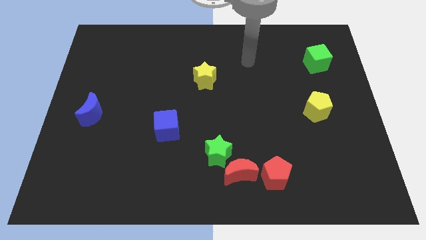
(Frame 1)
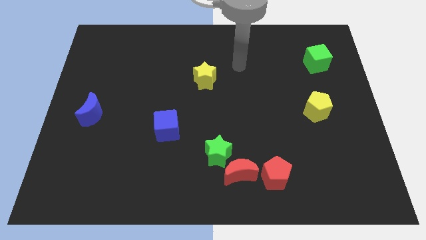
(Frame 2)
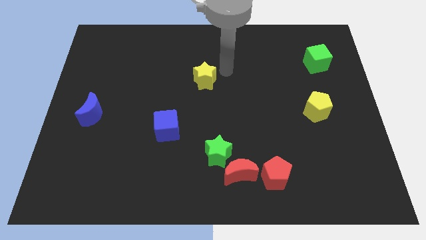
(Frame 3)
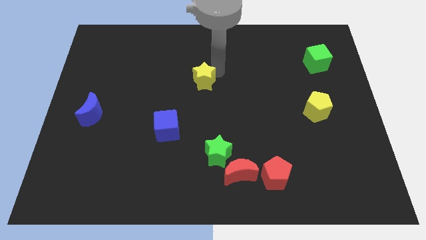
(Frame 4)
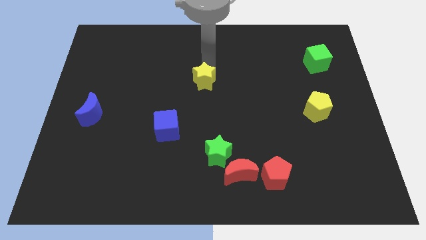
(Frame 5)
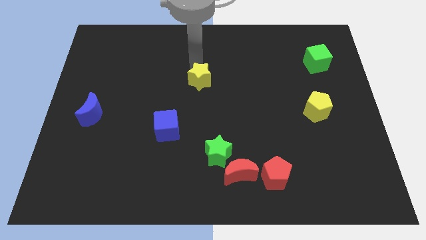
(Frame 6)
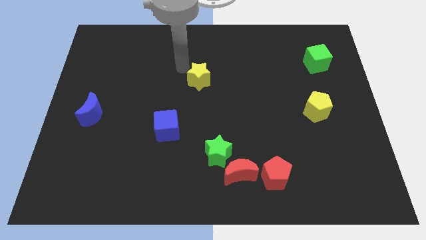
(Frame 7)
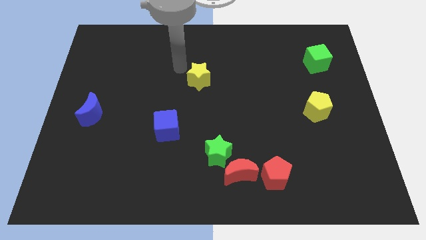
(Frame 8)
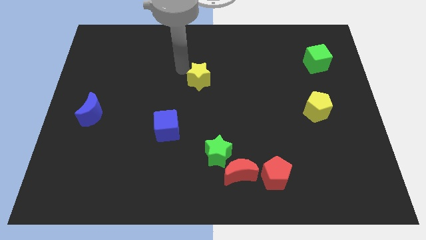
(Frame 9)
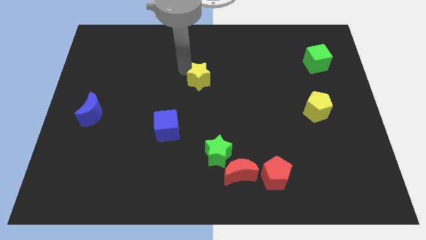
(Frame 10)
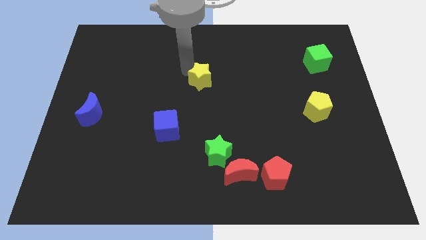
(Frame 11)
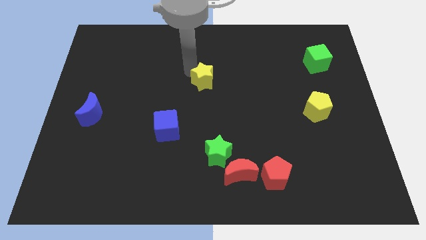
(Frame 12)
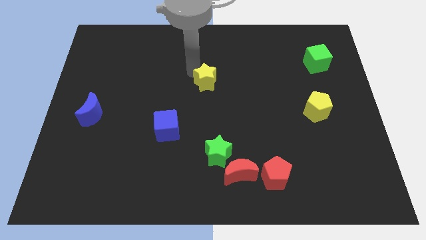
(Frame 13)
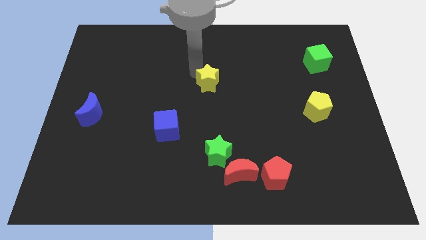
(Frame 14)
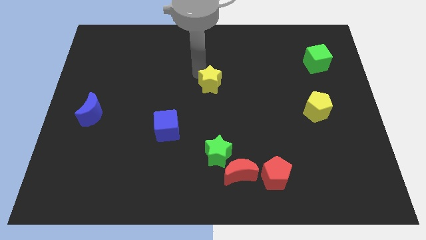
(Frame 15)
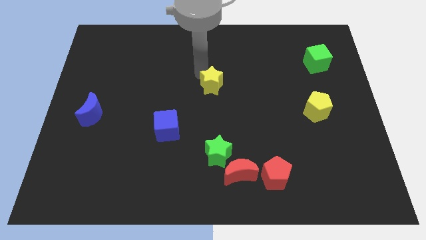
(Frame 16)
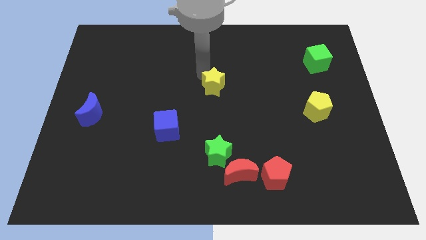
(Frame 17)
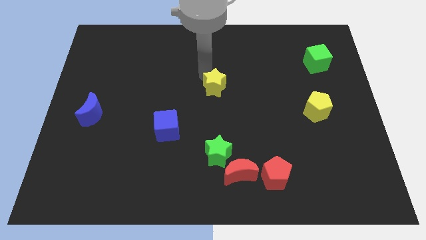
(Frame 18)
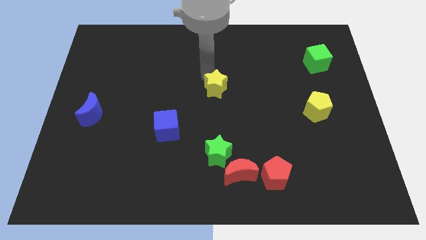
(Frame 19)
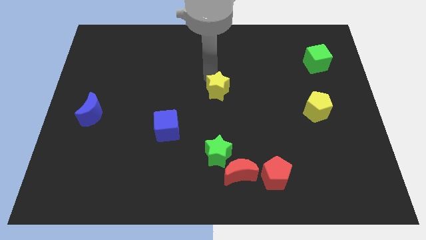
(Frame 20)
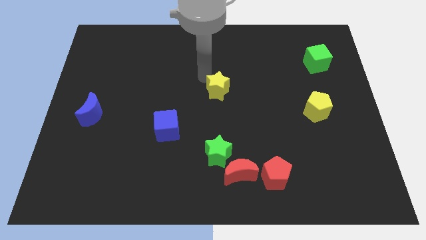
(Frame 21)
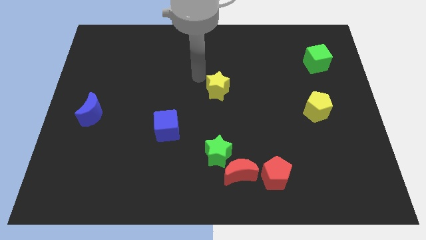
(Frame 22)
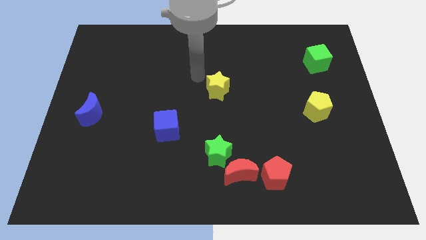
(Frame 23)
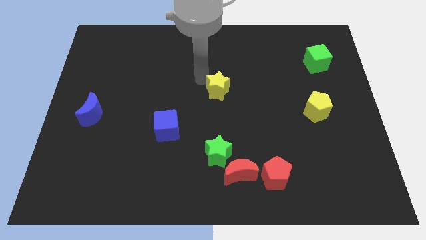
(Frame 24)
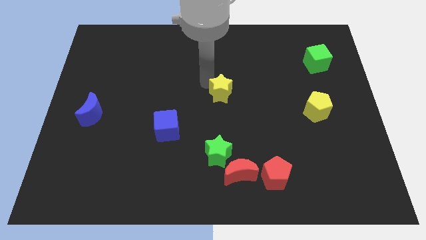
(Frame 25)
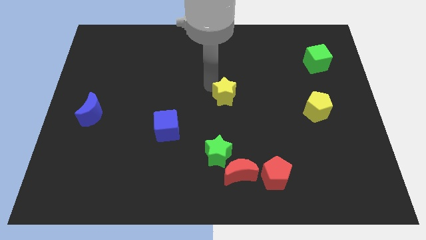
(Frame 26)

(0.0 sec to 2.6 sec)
slide the yellow star a bit down and then to the right

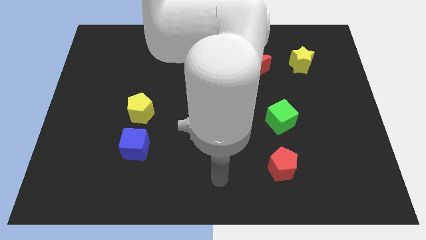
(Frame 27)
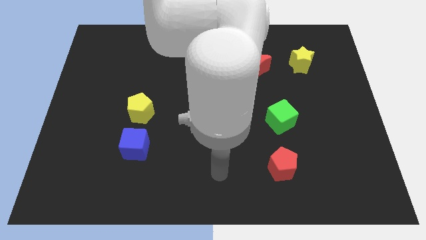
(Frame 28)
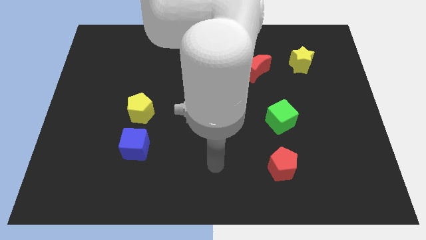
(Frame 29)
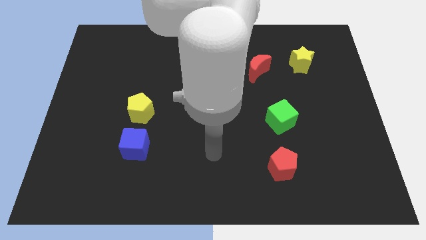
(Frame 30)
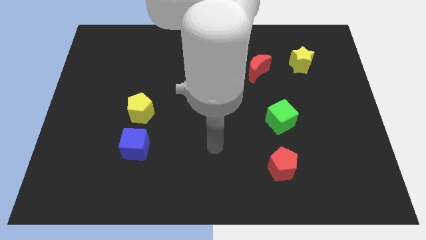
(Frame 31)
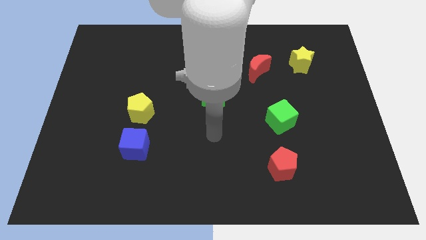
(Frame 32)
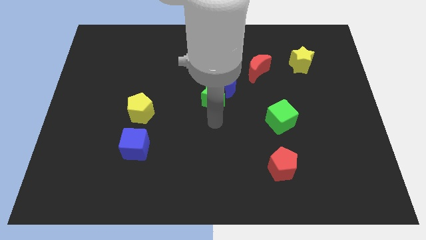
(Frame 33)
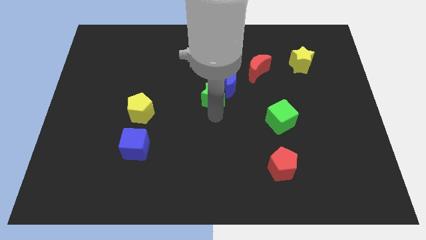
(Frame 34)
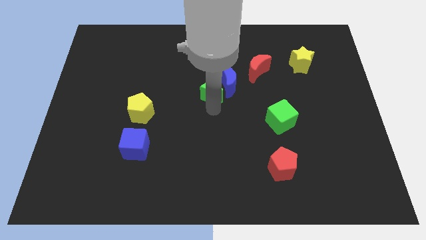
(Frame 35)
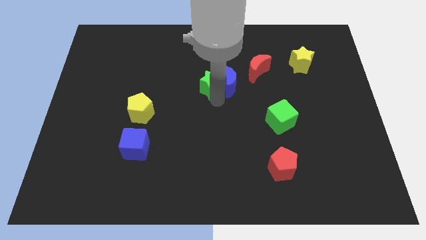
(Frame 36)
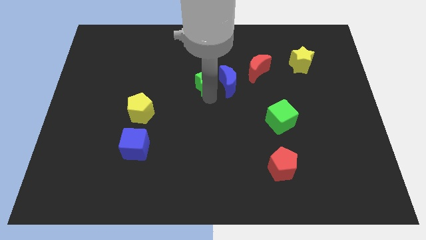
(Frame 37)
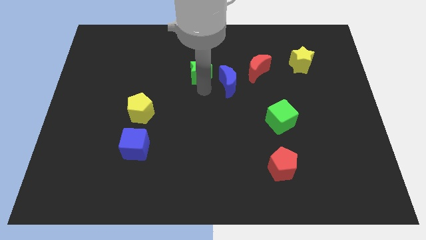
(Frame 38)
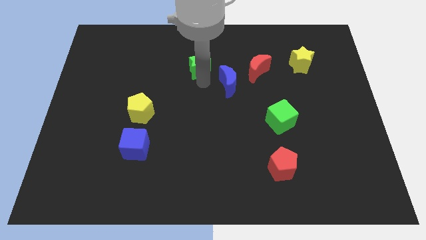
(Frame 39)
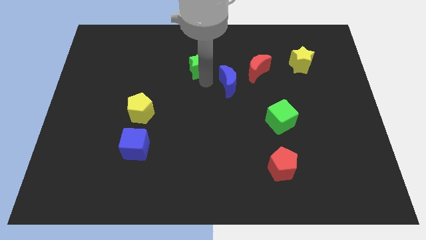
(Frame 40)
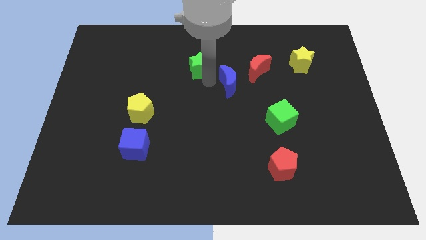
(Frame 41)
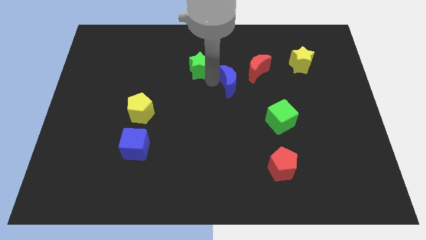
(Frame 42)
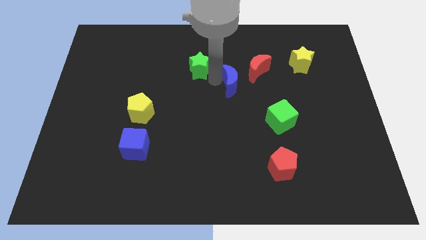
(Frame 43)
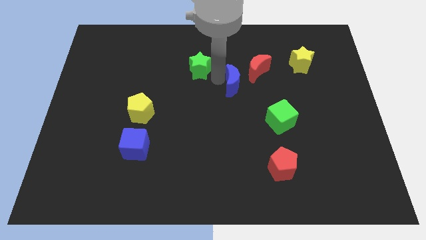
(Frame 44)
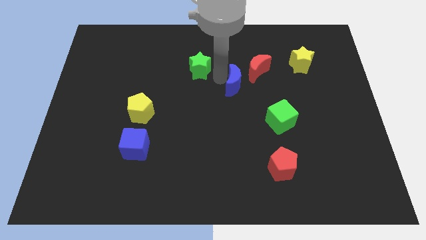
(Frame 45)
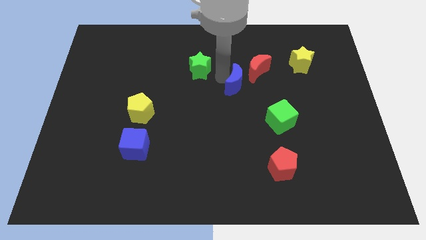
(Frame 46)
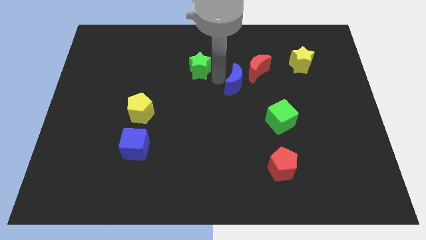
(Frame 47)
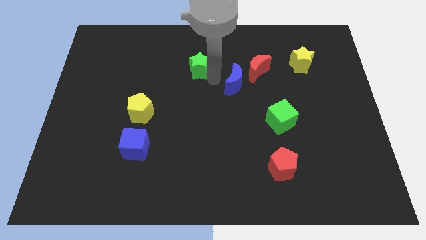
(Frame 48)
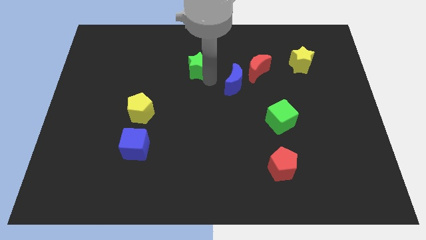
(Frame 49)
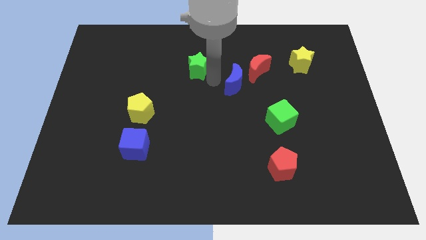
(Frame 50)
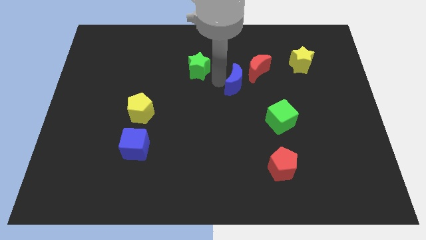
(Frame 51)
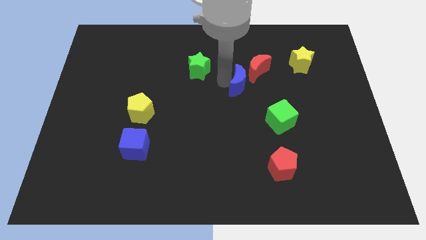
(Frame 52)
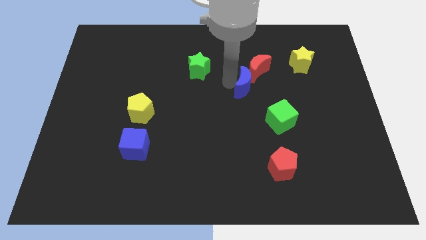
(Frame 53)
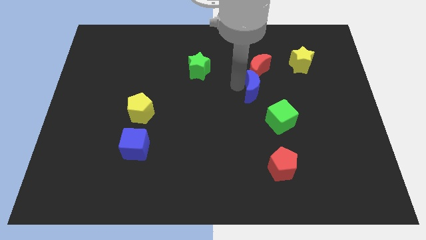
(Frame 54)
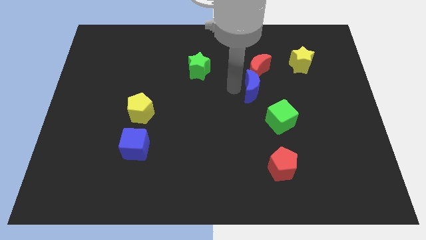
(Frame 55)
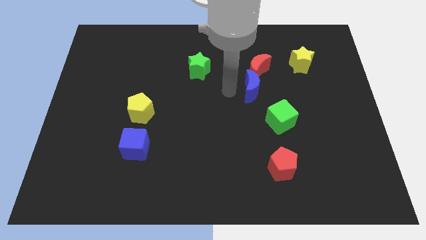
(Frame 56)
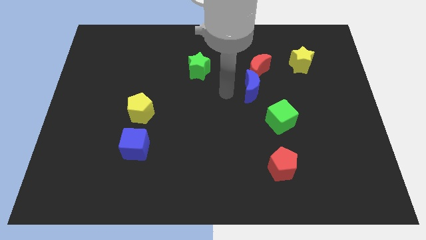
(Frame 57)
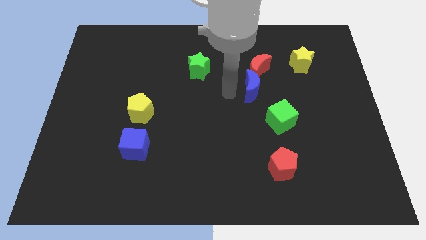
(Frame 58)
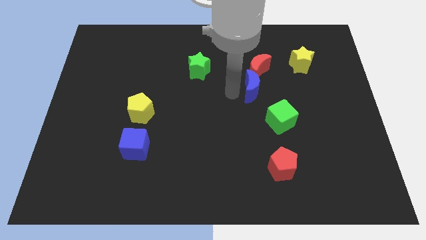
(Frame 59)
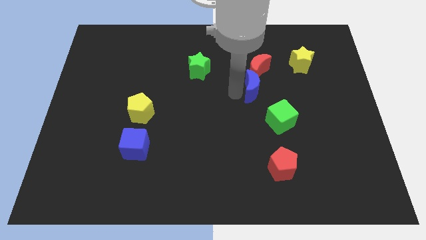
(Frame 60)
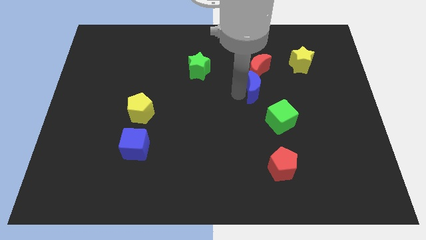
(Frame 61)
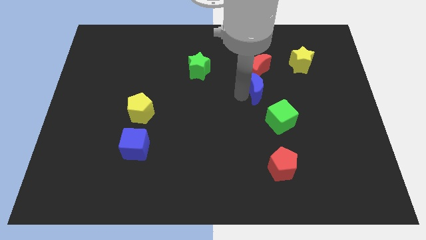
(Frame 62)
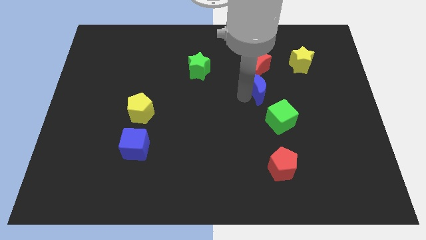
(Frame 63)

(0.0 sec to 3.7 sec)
slightly move the blue moon right

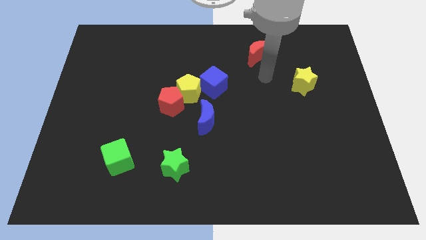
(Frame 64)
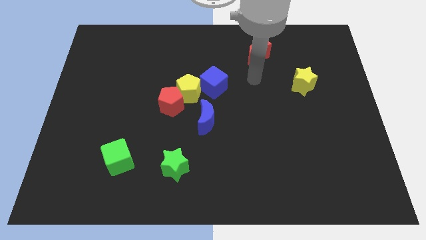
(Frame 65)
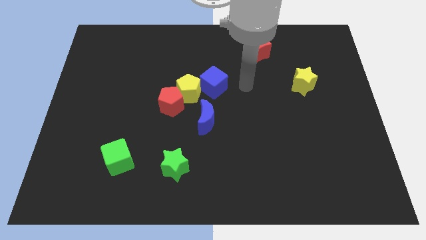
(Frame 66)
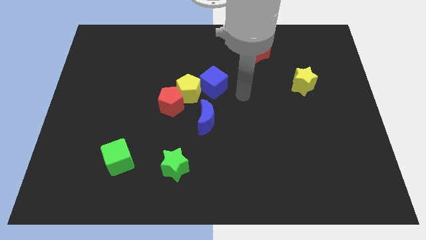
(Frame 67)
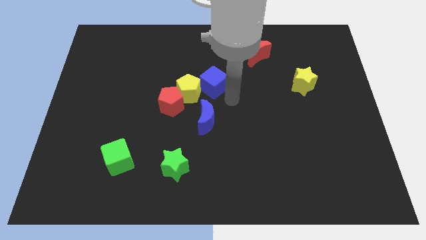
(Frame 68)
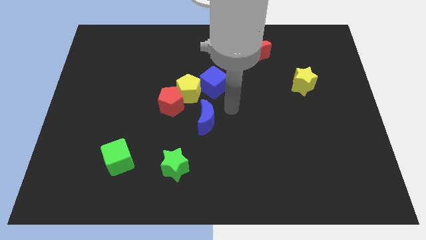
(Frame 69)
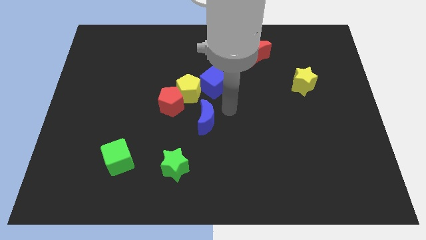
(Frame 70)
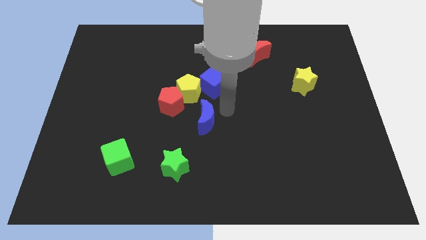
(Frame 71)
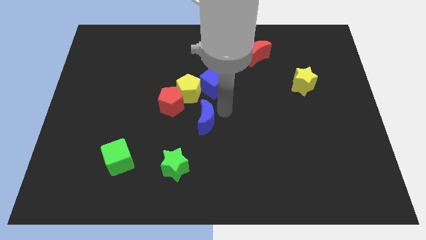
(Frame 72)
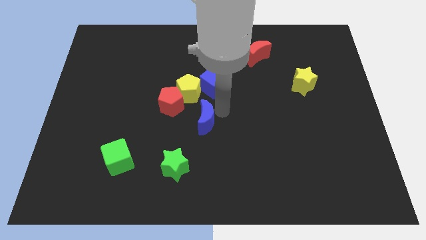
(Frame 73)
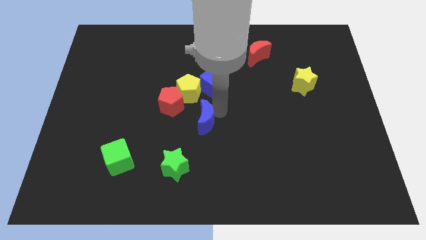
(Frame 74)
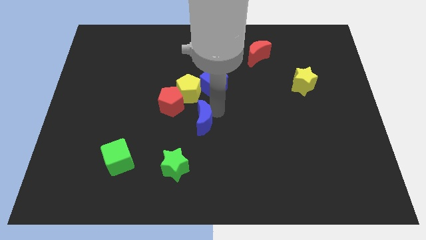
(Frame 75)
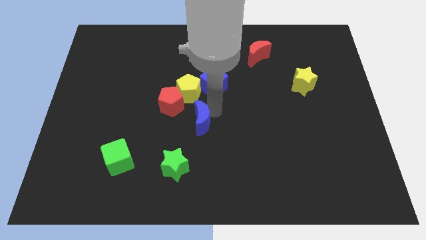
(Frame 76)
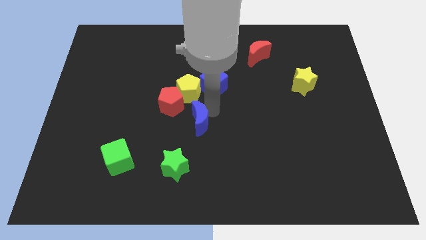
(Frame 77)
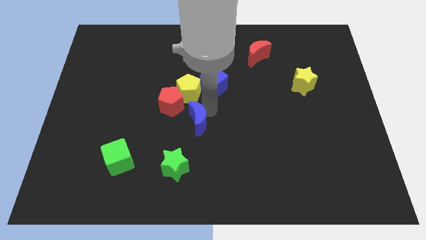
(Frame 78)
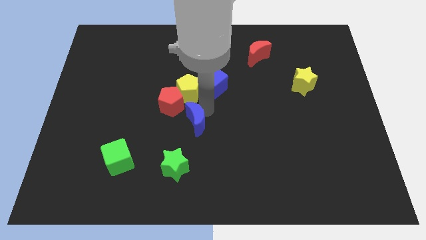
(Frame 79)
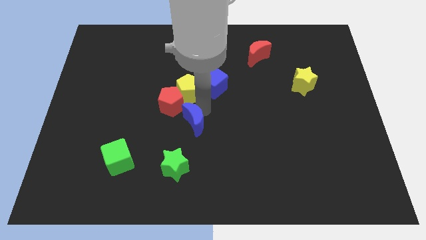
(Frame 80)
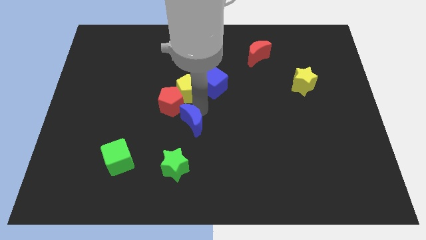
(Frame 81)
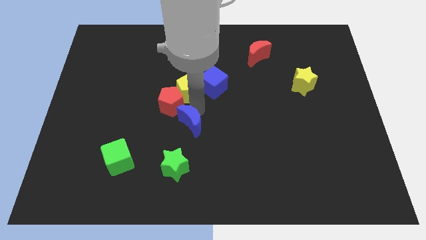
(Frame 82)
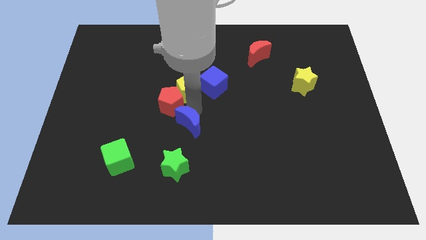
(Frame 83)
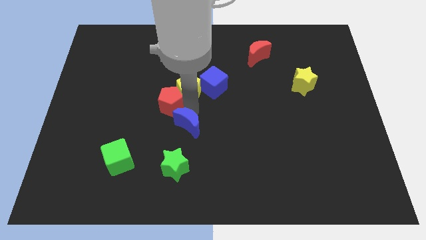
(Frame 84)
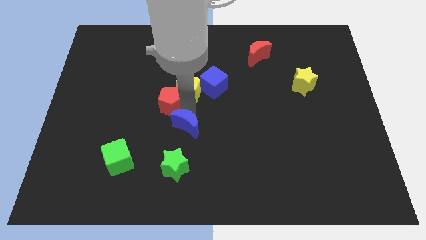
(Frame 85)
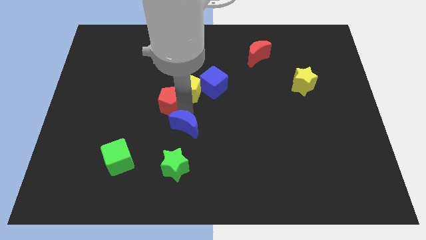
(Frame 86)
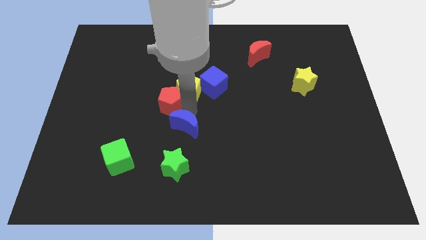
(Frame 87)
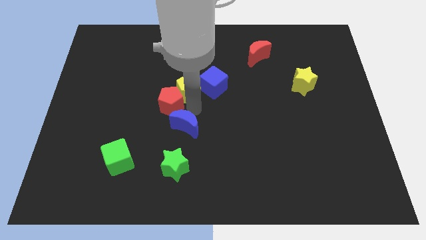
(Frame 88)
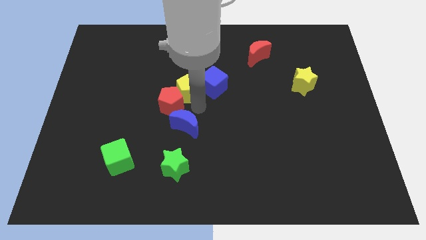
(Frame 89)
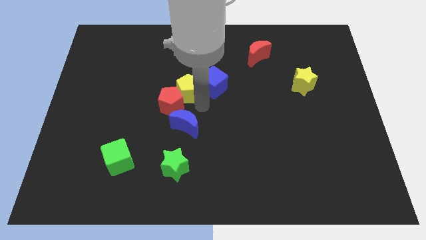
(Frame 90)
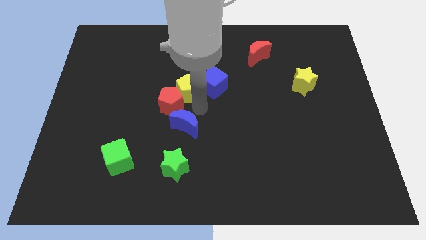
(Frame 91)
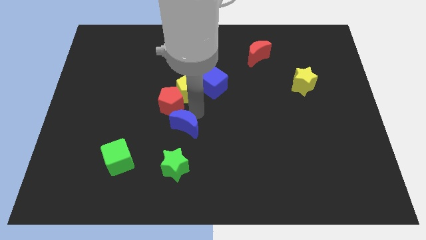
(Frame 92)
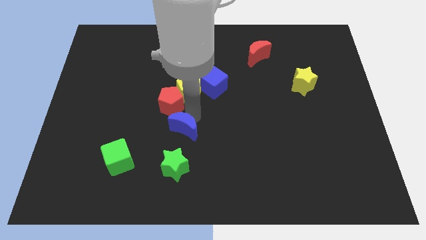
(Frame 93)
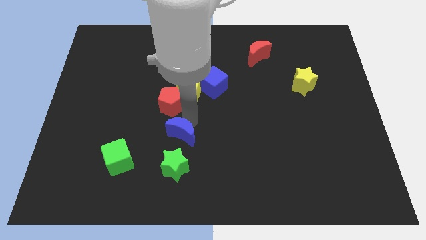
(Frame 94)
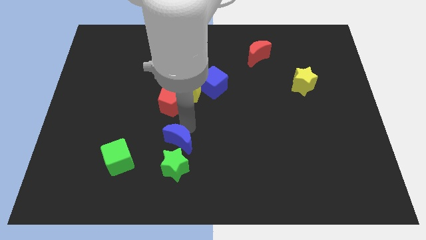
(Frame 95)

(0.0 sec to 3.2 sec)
slide the blue moon a bit diagonally downwards and left
